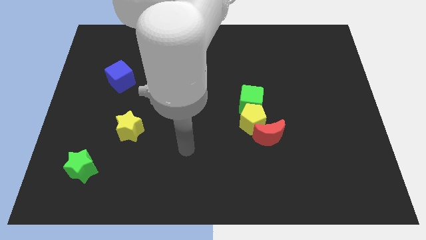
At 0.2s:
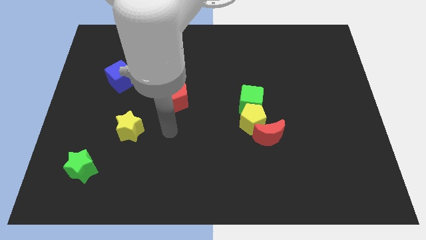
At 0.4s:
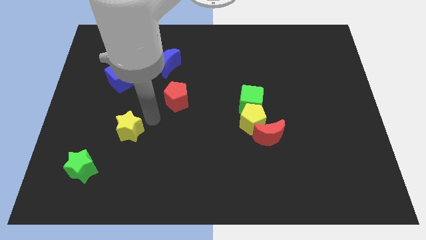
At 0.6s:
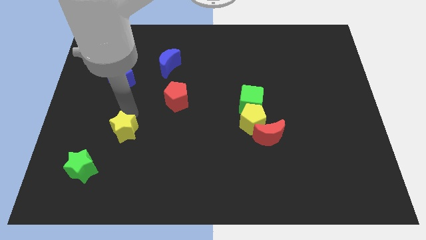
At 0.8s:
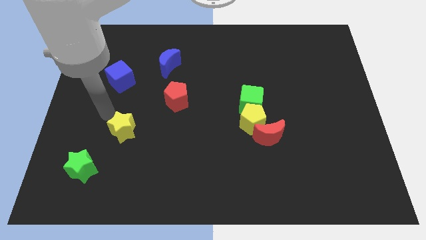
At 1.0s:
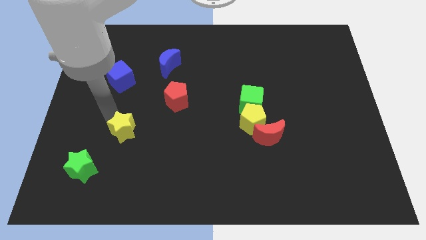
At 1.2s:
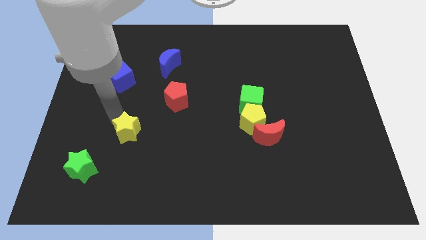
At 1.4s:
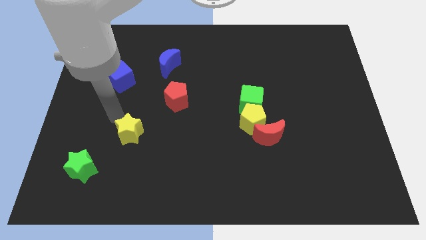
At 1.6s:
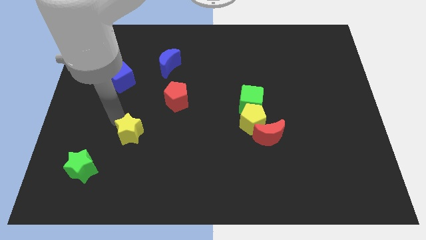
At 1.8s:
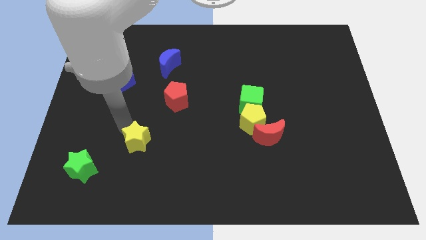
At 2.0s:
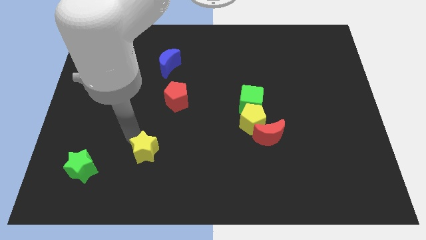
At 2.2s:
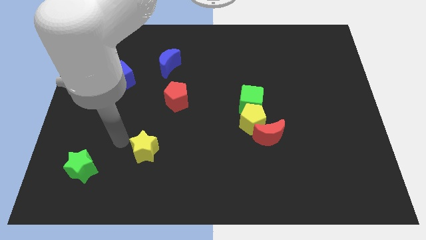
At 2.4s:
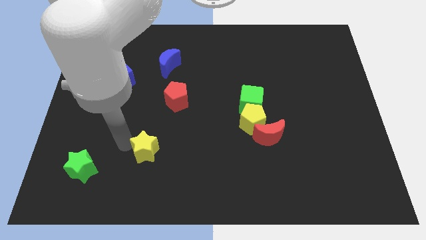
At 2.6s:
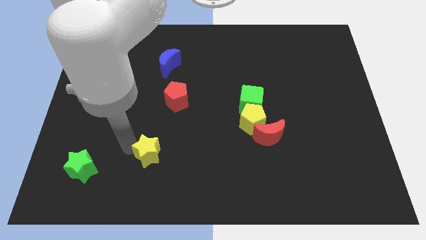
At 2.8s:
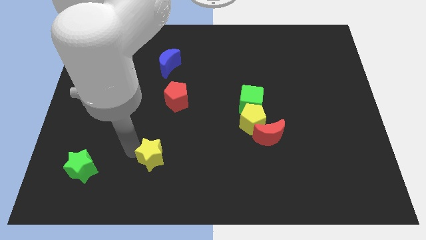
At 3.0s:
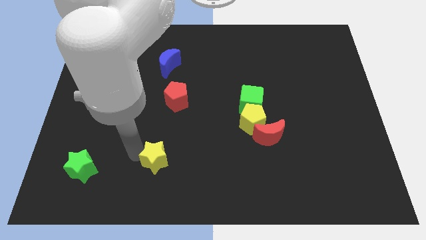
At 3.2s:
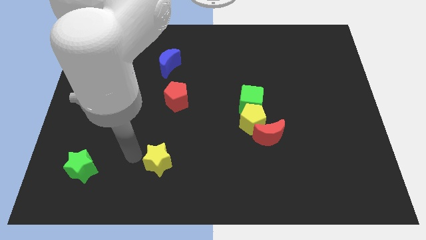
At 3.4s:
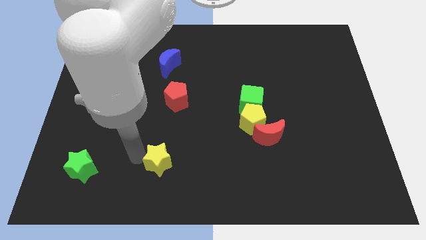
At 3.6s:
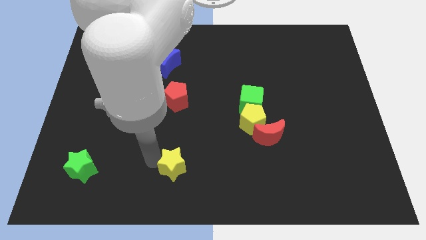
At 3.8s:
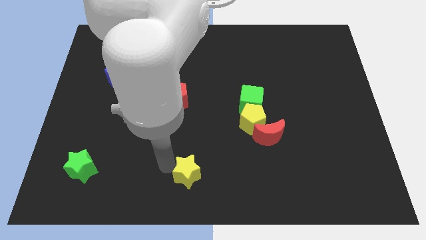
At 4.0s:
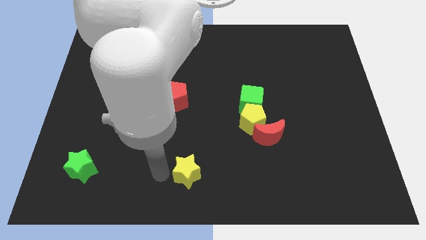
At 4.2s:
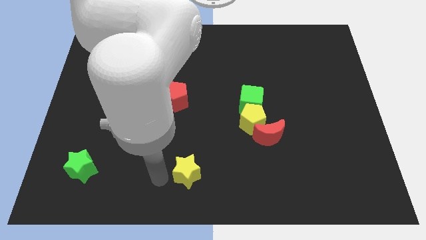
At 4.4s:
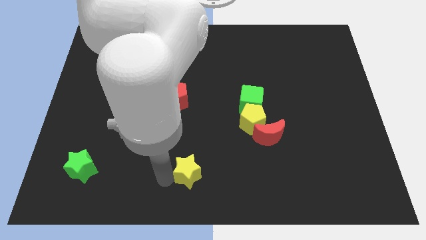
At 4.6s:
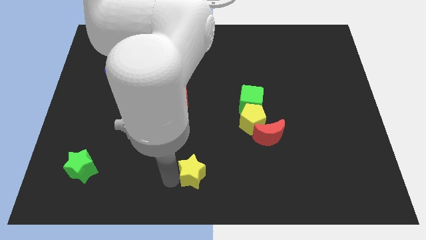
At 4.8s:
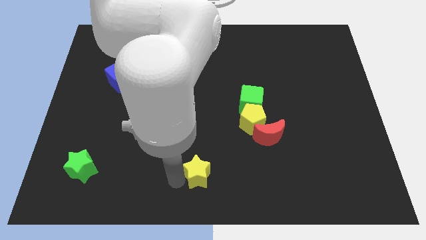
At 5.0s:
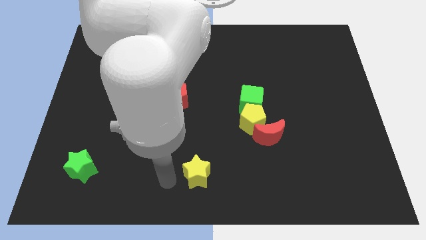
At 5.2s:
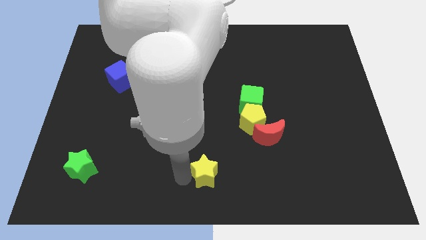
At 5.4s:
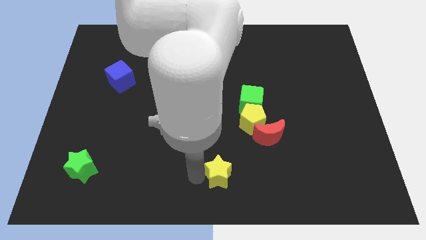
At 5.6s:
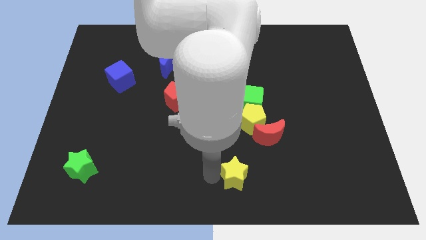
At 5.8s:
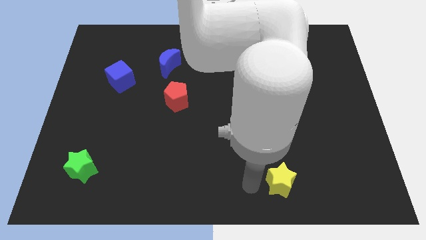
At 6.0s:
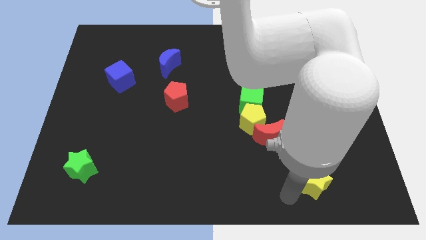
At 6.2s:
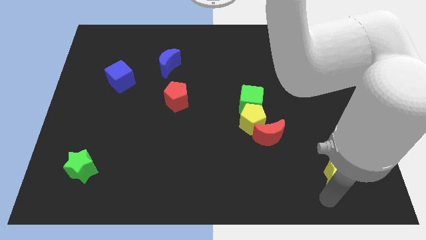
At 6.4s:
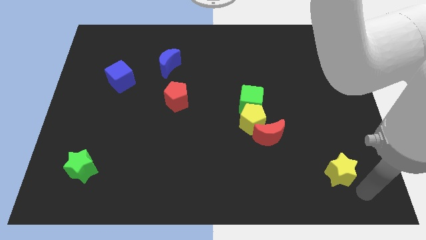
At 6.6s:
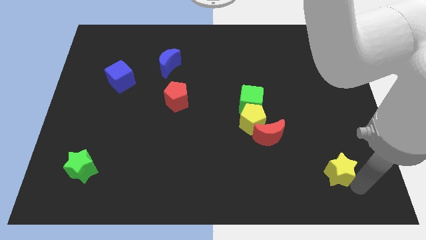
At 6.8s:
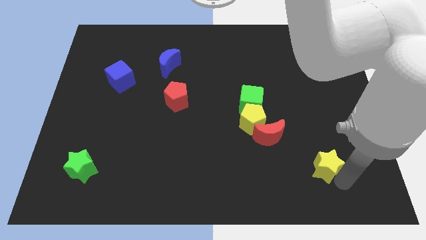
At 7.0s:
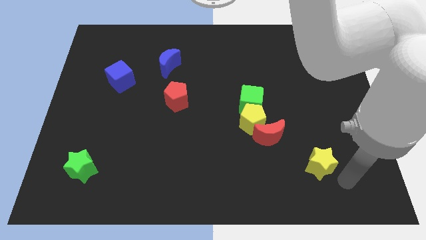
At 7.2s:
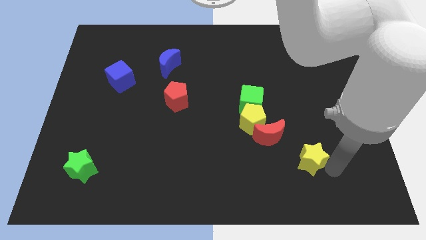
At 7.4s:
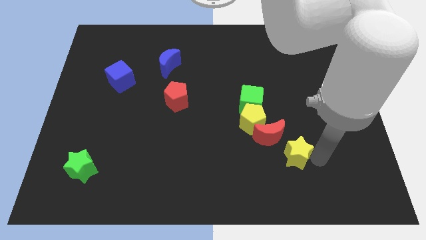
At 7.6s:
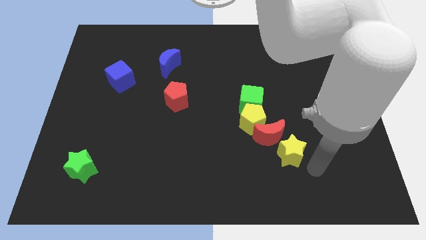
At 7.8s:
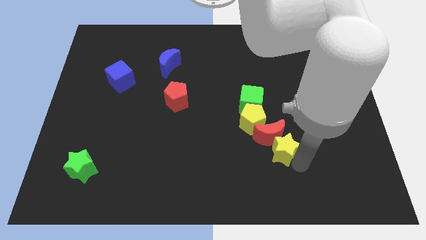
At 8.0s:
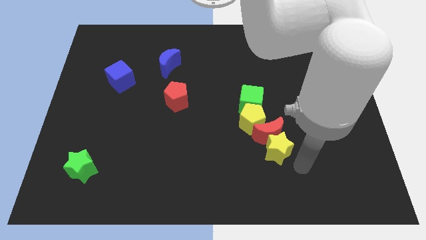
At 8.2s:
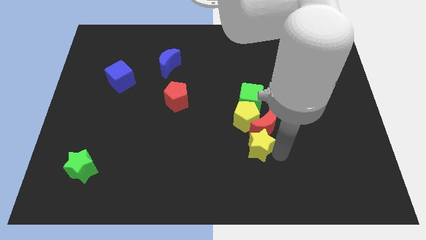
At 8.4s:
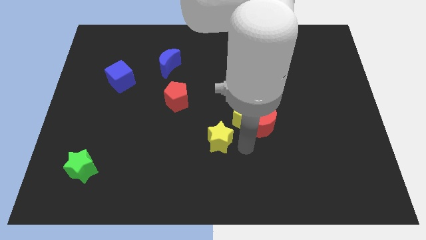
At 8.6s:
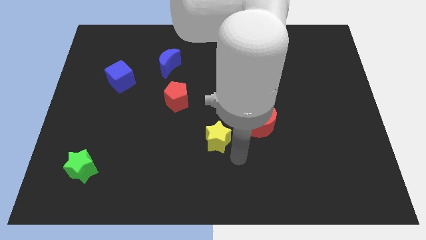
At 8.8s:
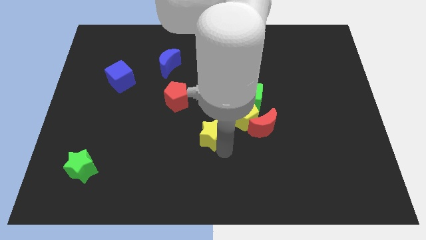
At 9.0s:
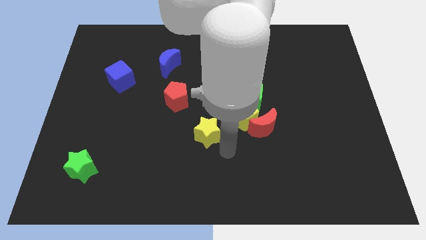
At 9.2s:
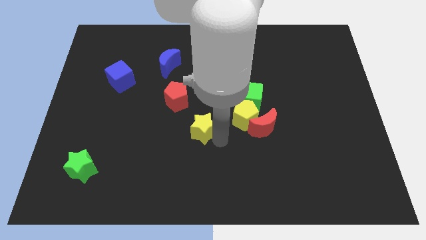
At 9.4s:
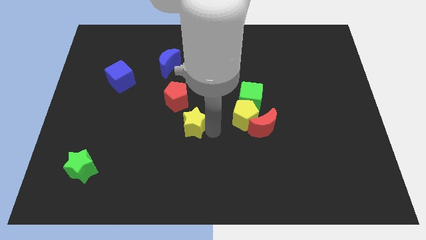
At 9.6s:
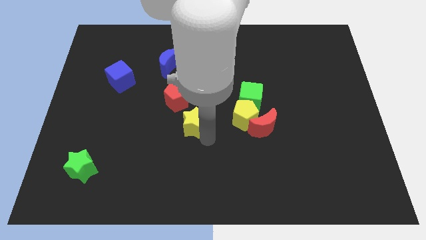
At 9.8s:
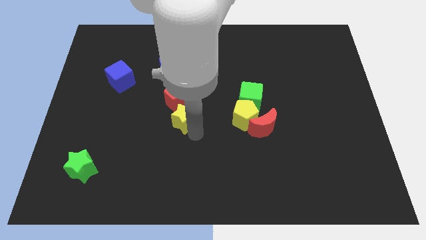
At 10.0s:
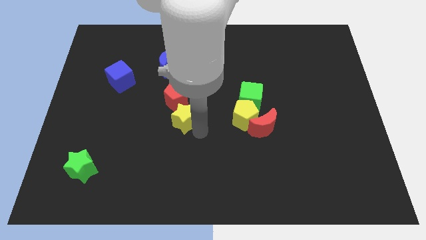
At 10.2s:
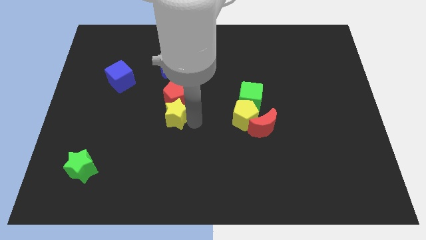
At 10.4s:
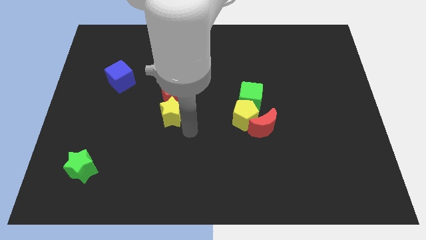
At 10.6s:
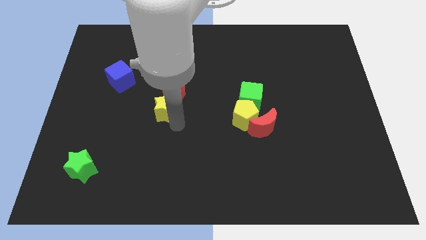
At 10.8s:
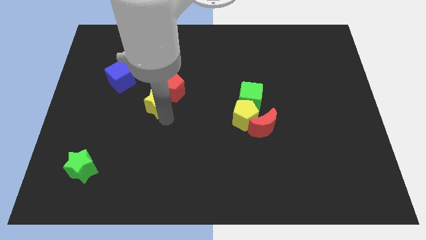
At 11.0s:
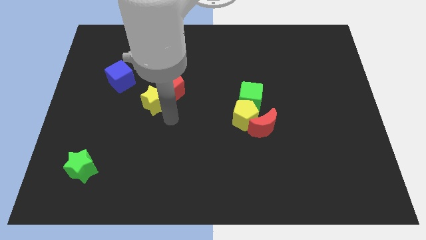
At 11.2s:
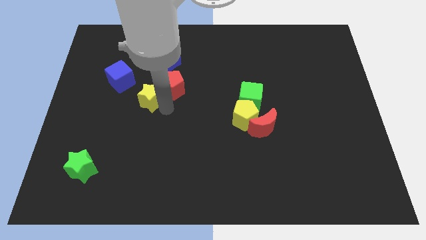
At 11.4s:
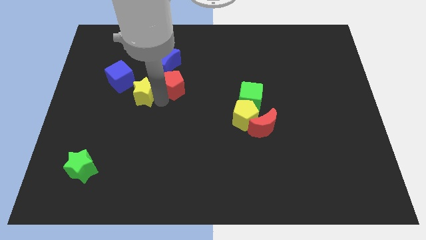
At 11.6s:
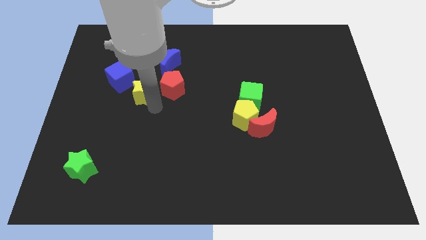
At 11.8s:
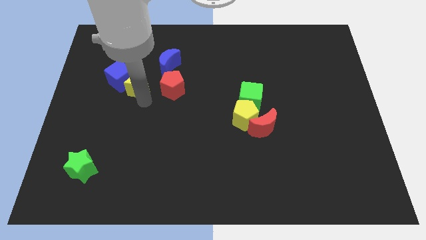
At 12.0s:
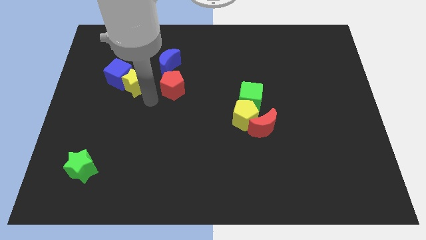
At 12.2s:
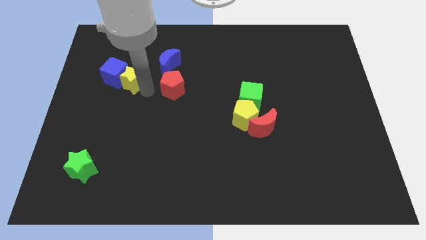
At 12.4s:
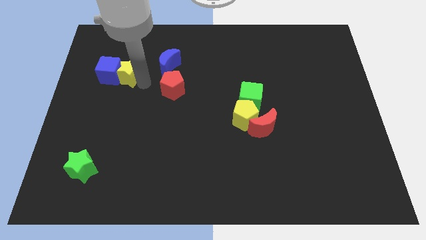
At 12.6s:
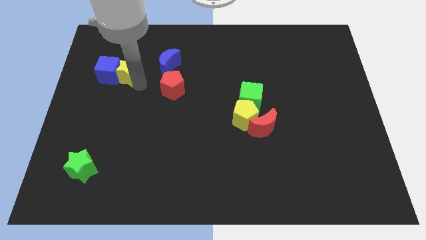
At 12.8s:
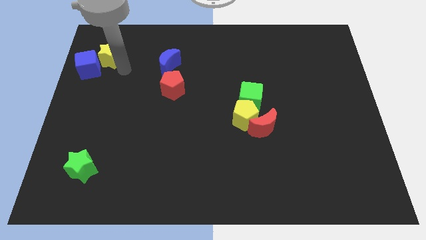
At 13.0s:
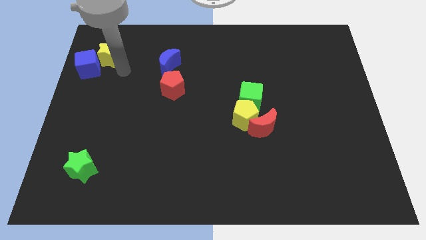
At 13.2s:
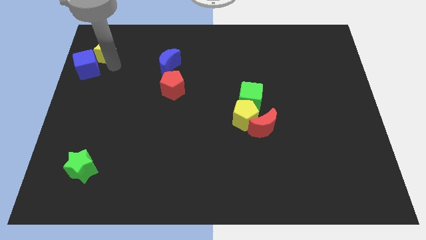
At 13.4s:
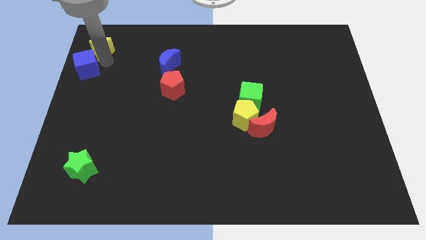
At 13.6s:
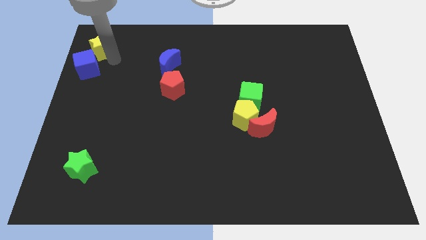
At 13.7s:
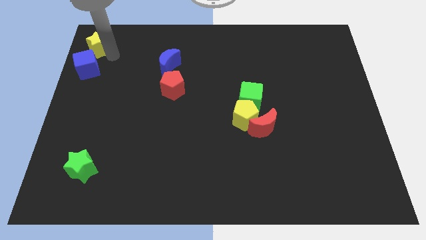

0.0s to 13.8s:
push the yellow star to the upper left corner
